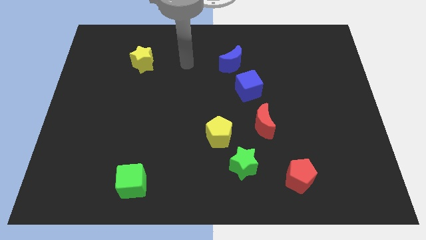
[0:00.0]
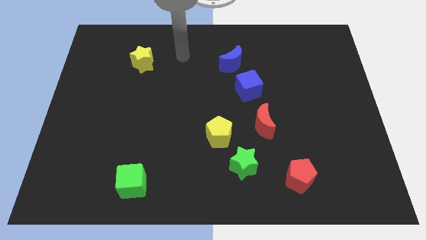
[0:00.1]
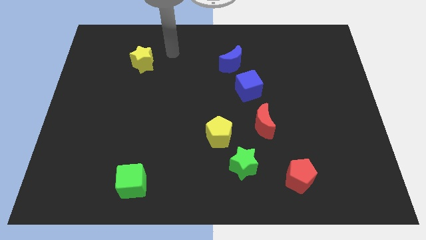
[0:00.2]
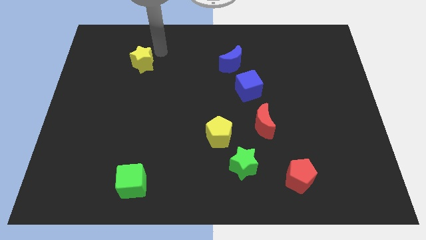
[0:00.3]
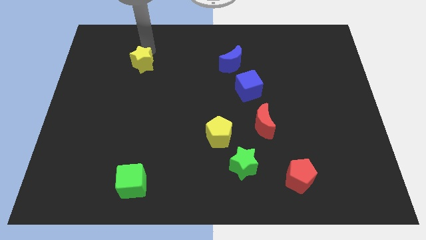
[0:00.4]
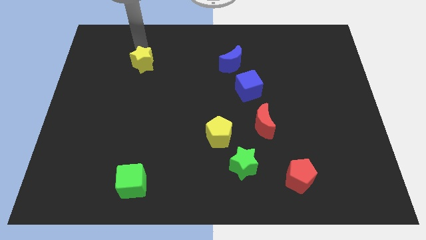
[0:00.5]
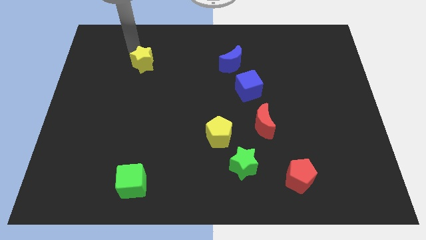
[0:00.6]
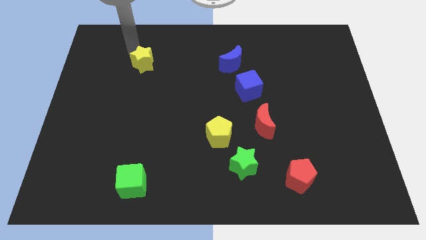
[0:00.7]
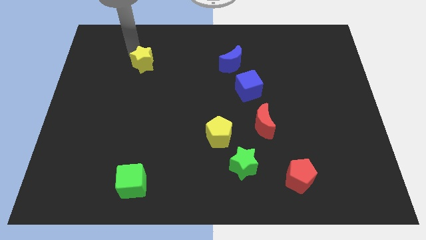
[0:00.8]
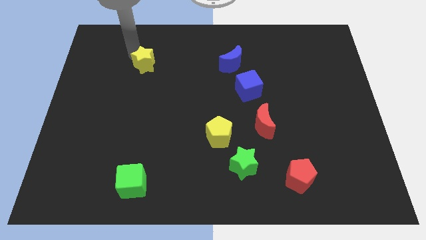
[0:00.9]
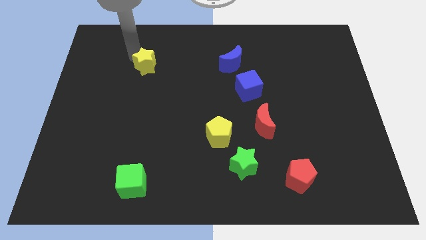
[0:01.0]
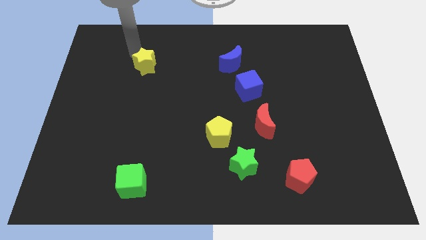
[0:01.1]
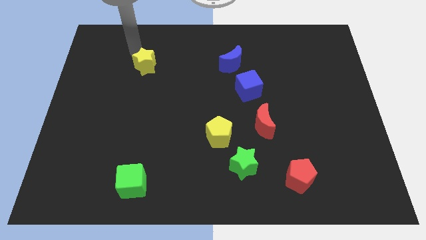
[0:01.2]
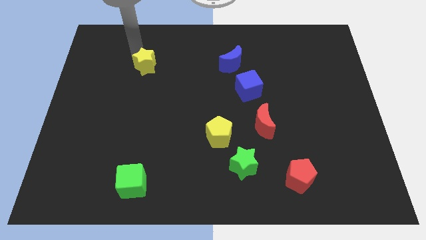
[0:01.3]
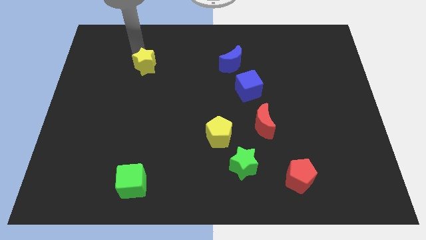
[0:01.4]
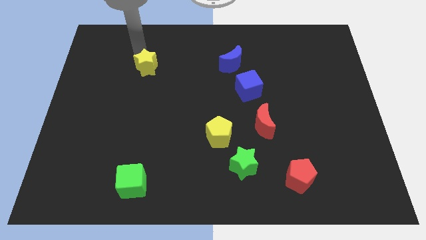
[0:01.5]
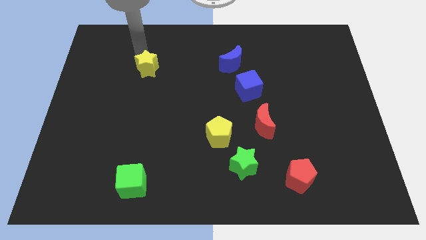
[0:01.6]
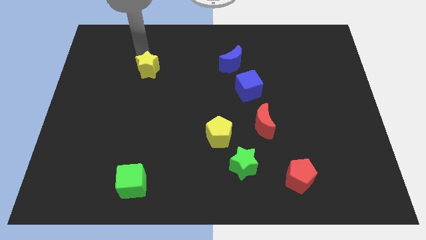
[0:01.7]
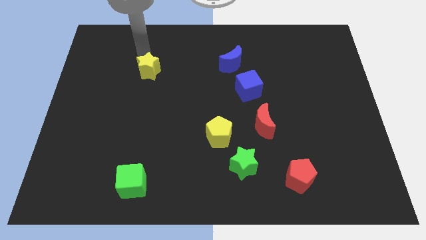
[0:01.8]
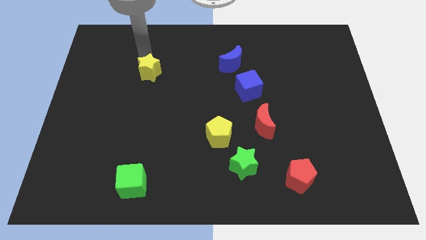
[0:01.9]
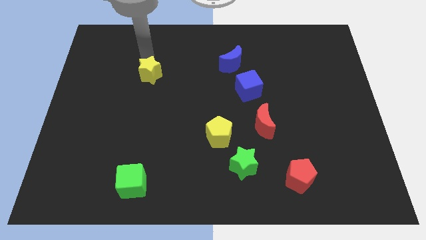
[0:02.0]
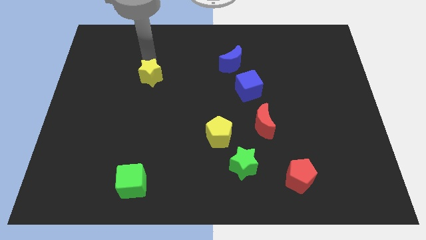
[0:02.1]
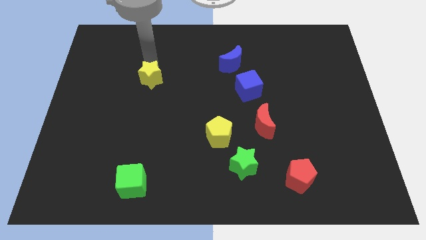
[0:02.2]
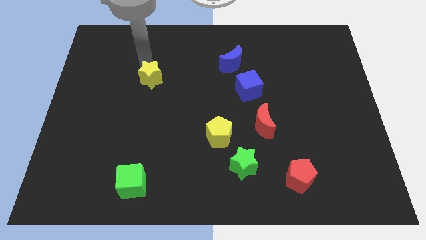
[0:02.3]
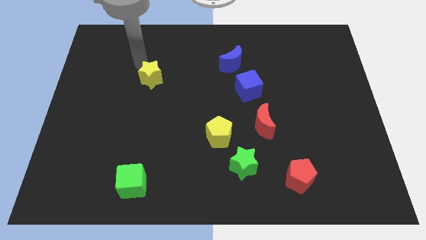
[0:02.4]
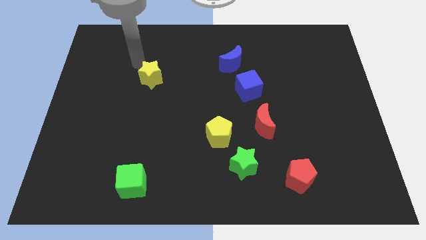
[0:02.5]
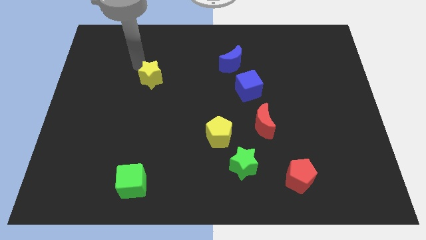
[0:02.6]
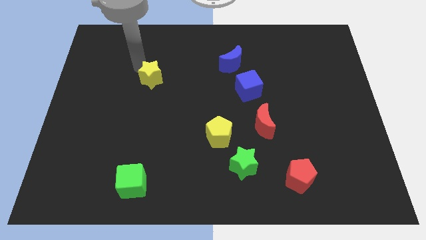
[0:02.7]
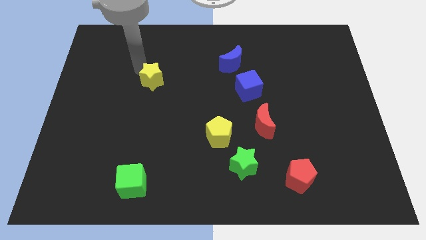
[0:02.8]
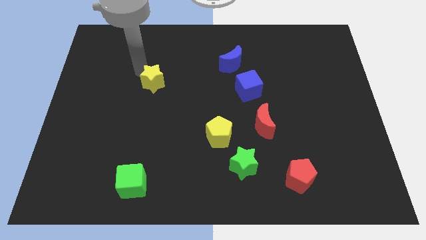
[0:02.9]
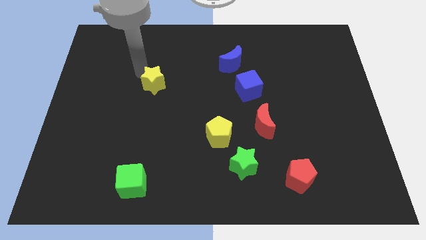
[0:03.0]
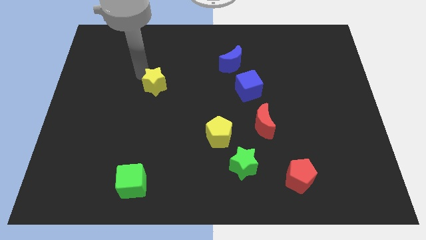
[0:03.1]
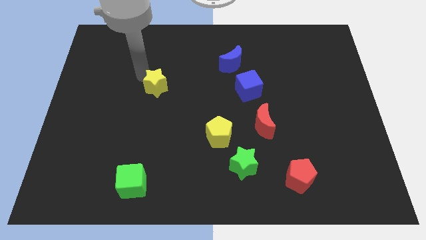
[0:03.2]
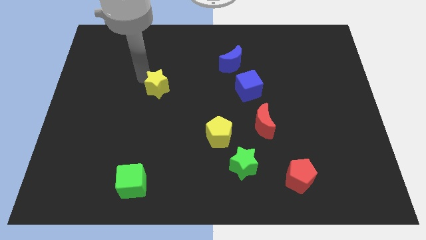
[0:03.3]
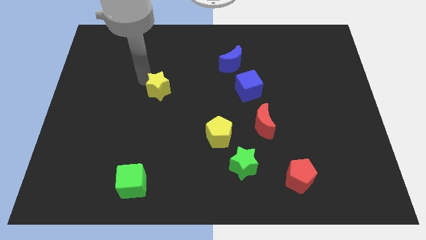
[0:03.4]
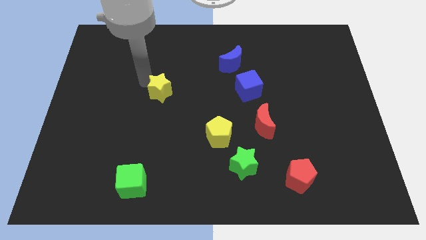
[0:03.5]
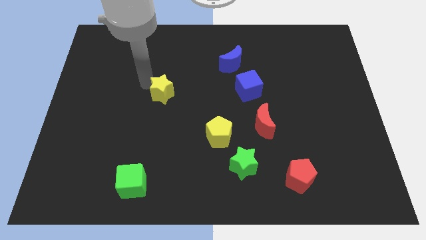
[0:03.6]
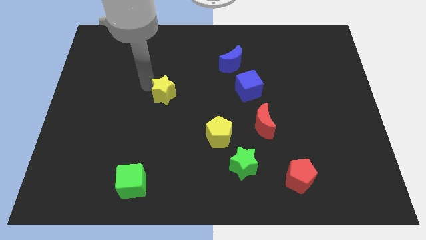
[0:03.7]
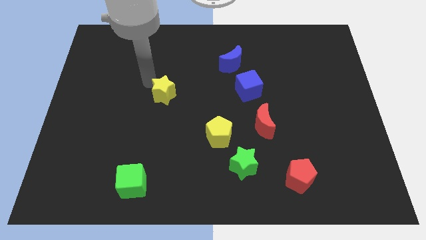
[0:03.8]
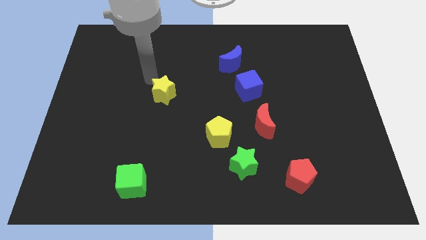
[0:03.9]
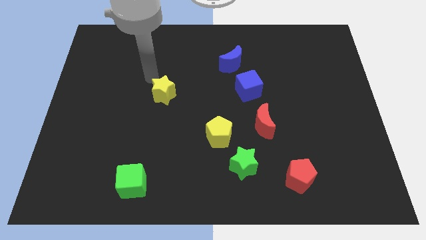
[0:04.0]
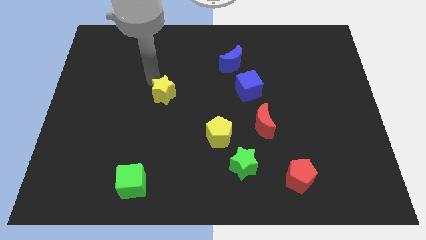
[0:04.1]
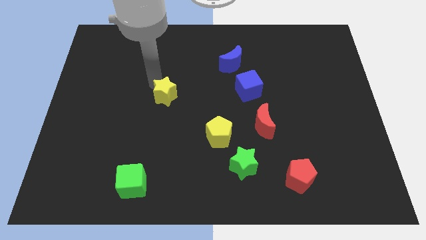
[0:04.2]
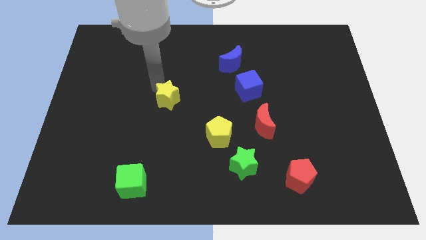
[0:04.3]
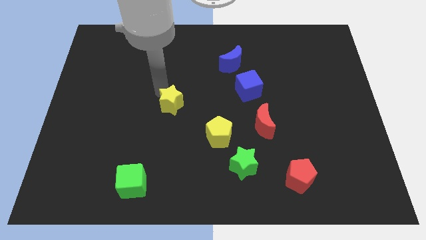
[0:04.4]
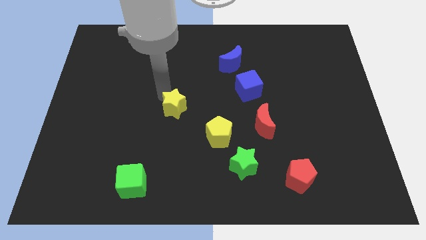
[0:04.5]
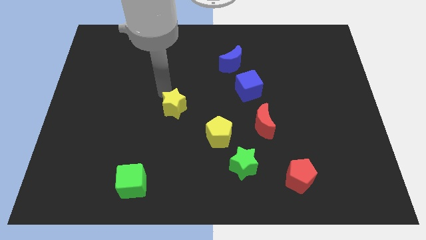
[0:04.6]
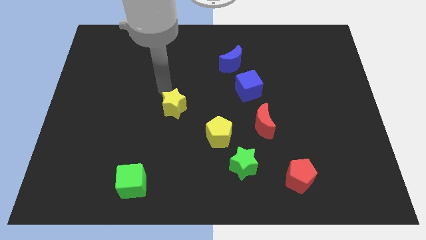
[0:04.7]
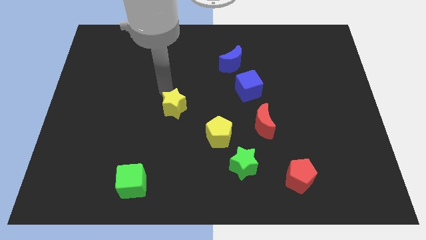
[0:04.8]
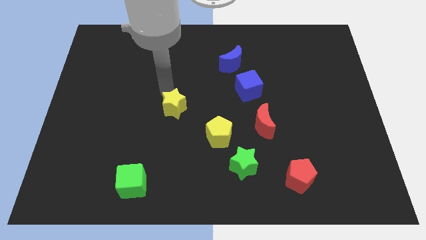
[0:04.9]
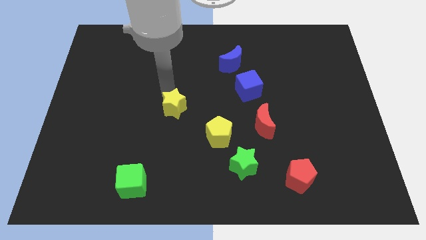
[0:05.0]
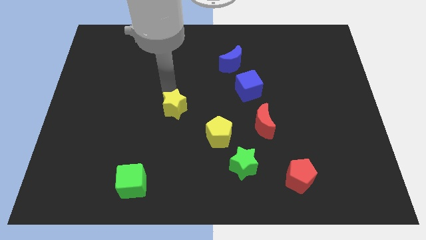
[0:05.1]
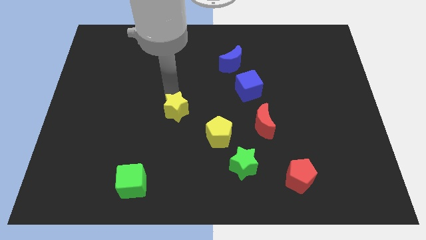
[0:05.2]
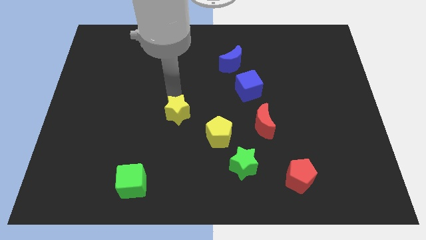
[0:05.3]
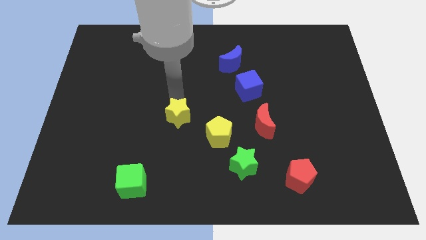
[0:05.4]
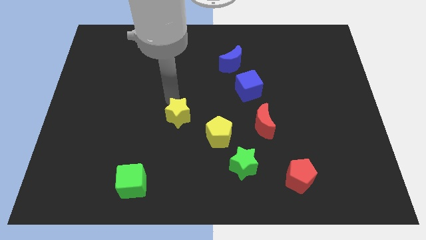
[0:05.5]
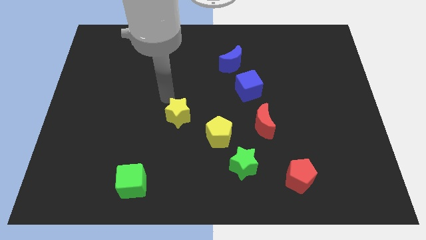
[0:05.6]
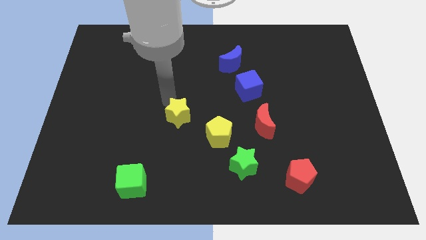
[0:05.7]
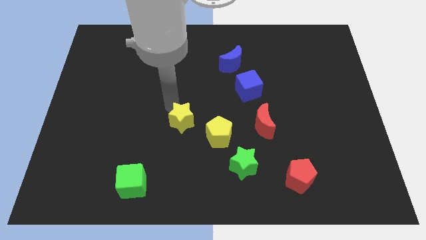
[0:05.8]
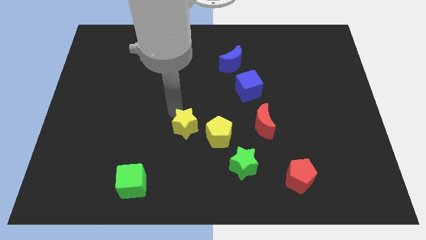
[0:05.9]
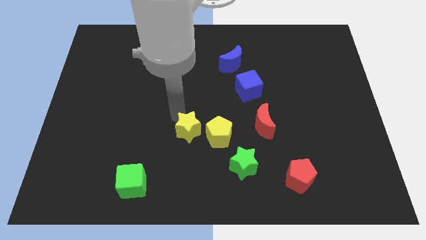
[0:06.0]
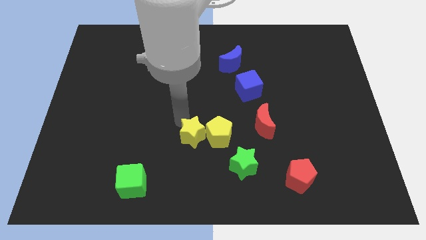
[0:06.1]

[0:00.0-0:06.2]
move the yellow star to the bottom left of the yellow pentagon

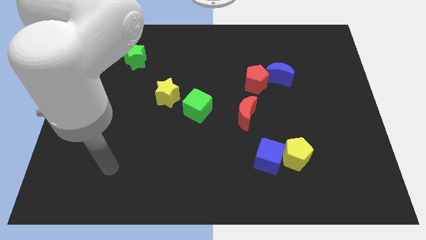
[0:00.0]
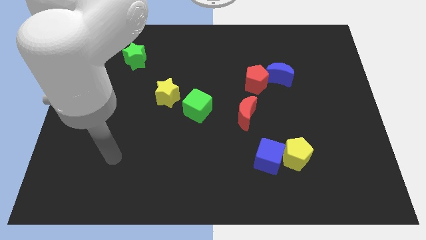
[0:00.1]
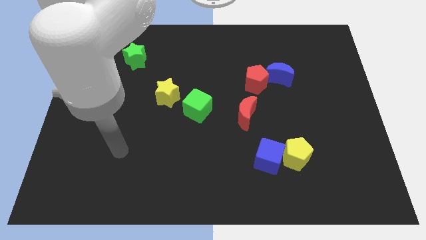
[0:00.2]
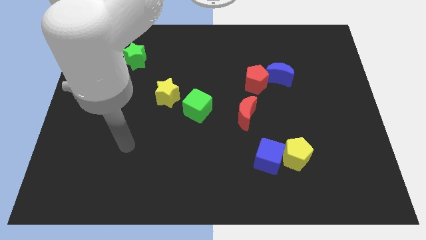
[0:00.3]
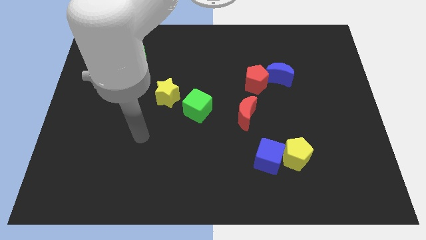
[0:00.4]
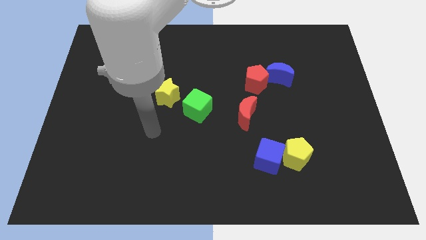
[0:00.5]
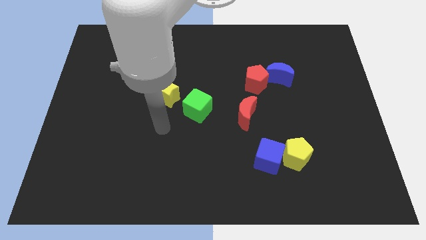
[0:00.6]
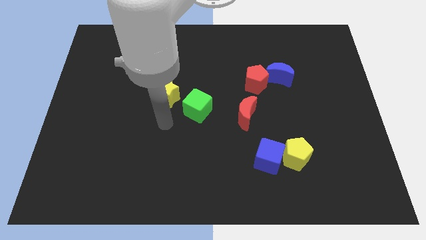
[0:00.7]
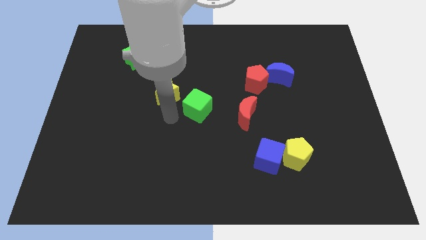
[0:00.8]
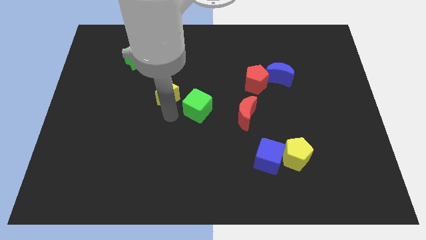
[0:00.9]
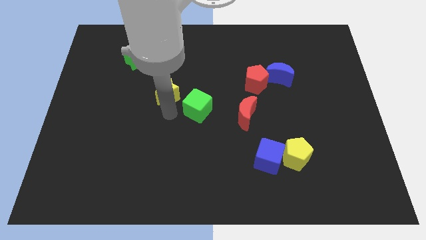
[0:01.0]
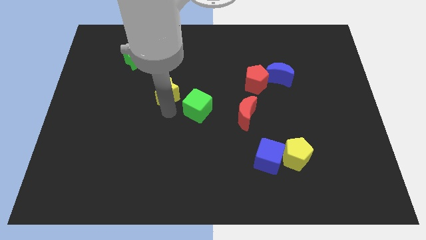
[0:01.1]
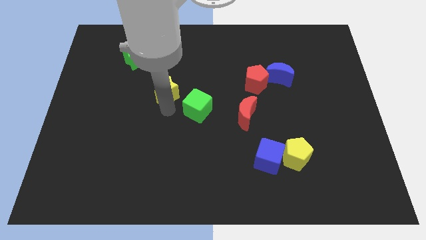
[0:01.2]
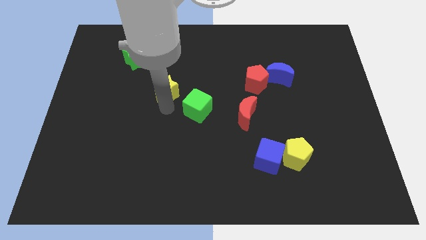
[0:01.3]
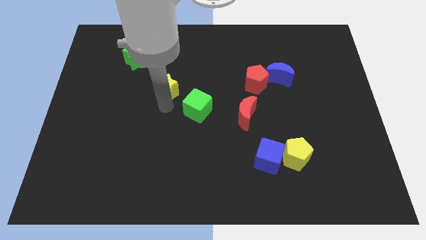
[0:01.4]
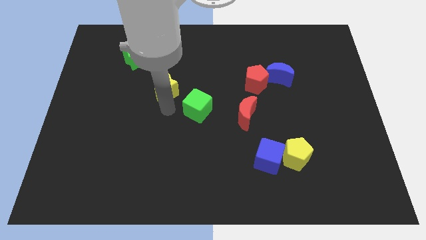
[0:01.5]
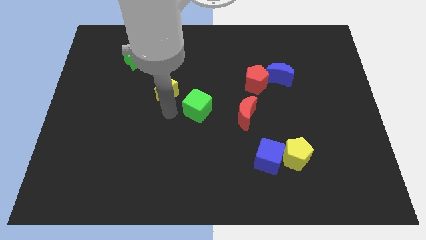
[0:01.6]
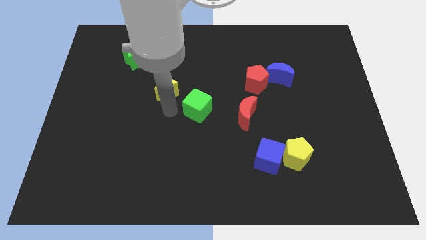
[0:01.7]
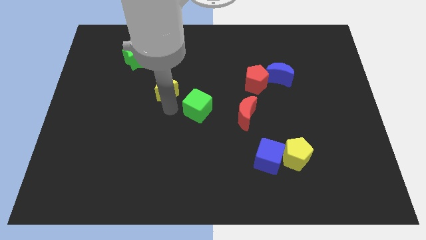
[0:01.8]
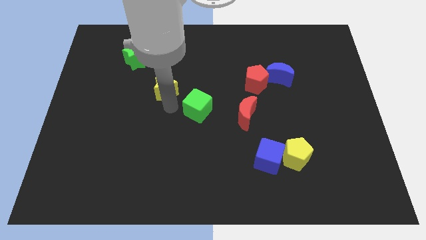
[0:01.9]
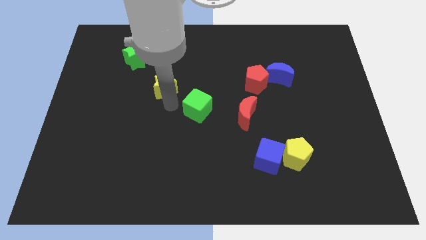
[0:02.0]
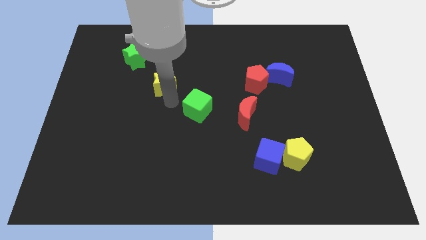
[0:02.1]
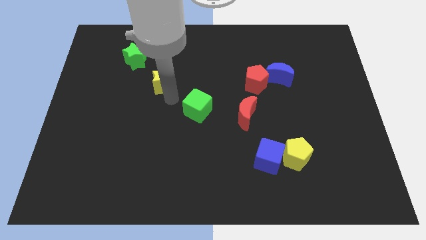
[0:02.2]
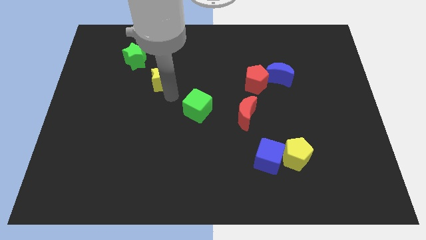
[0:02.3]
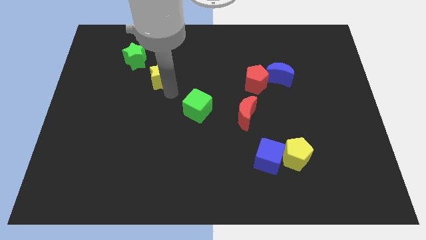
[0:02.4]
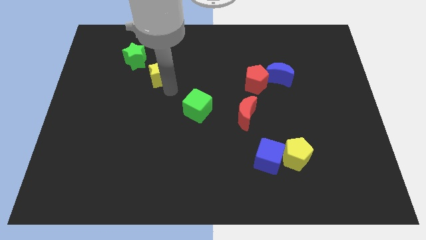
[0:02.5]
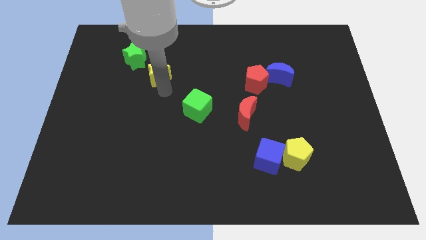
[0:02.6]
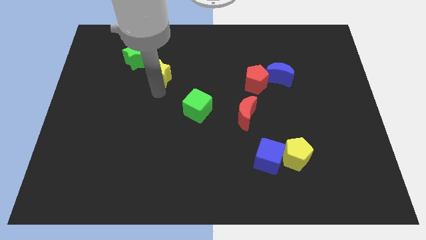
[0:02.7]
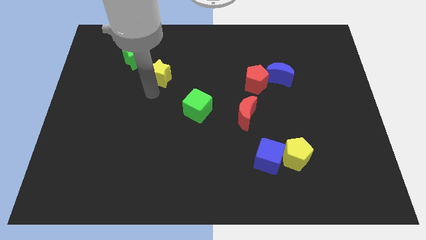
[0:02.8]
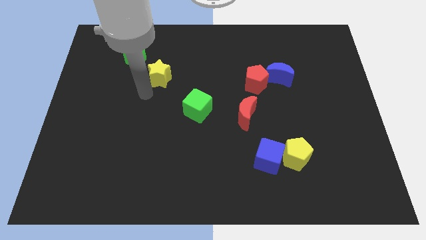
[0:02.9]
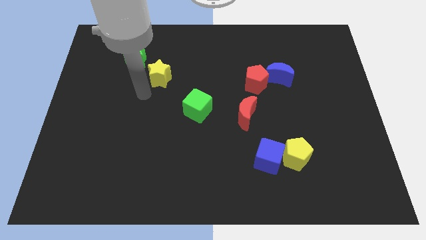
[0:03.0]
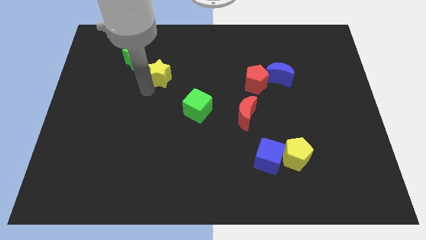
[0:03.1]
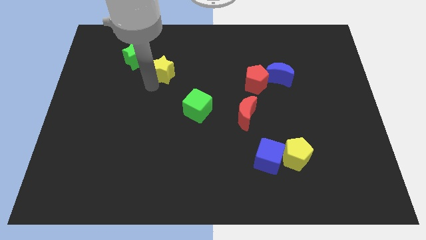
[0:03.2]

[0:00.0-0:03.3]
move the yellow star just right of the green star
